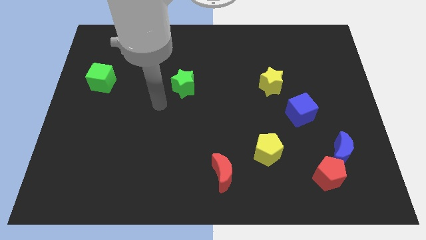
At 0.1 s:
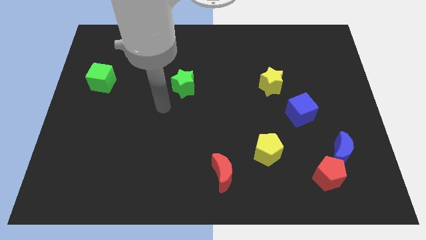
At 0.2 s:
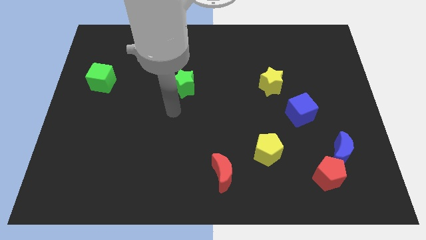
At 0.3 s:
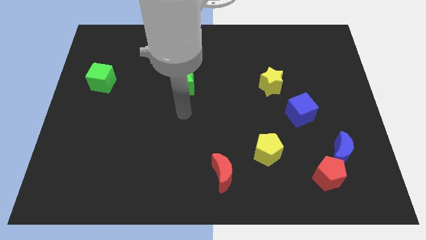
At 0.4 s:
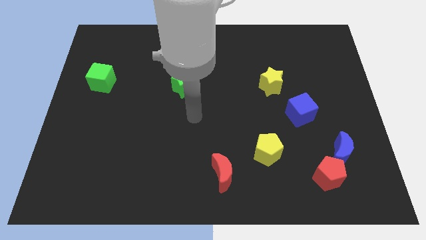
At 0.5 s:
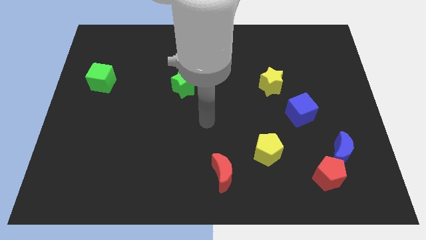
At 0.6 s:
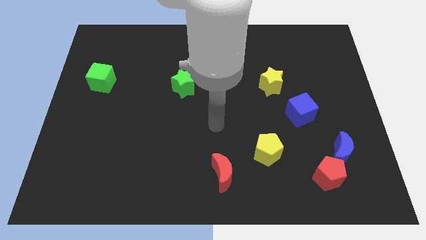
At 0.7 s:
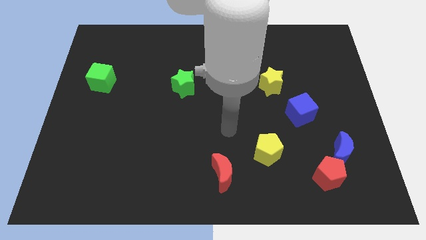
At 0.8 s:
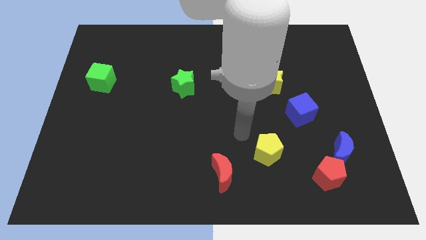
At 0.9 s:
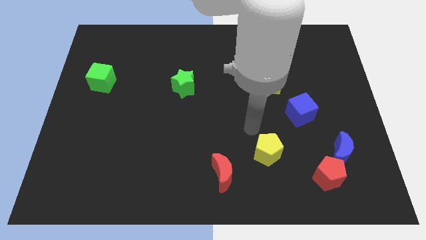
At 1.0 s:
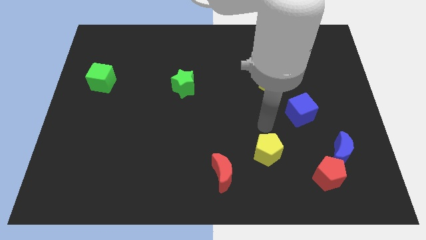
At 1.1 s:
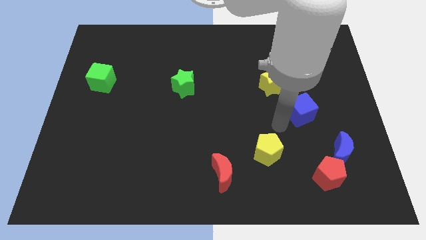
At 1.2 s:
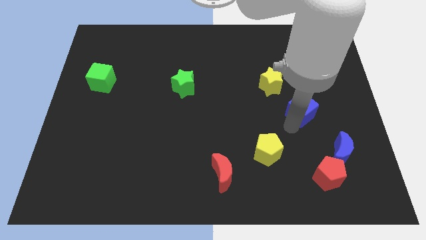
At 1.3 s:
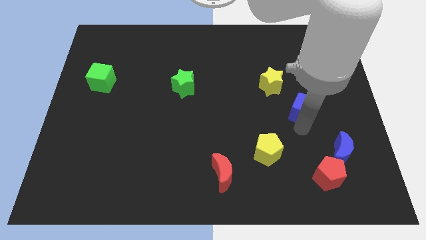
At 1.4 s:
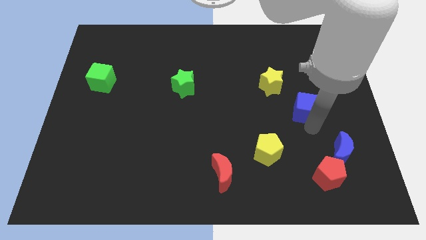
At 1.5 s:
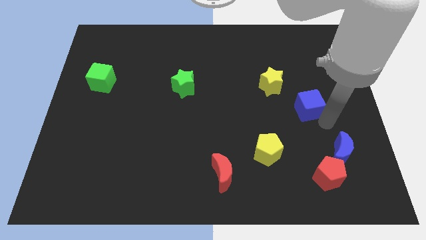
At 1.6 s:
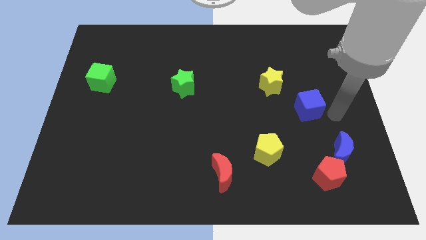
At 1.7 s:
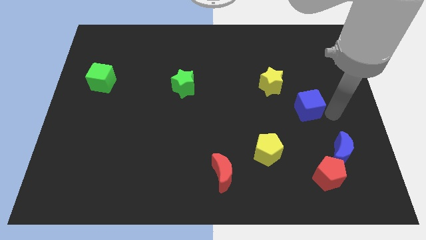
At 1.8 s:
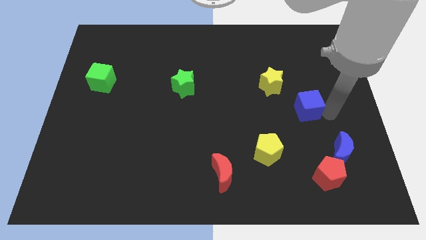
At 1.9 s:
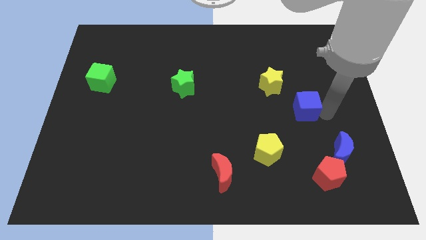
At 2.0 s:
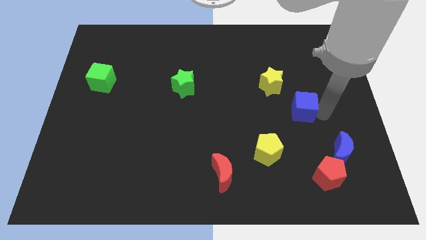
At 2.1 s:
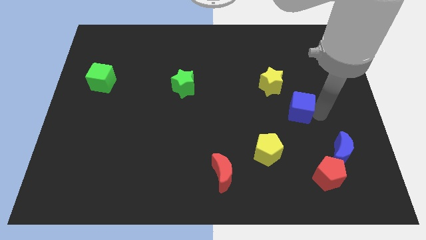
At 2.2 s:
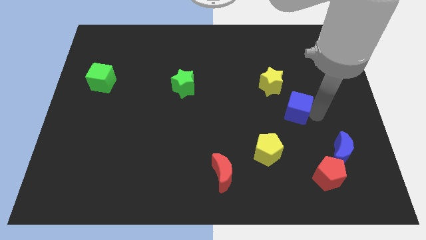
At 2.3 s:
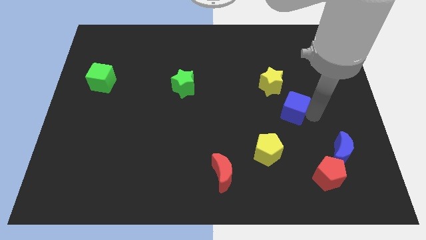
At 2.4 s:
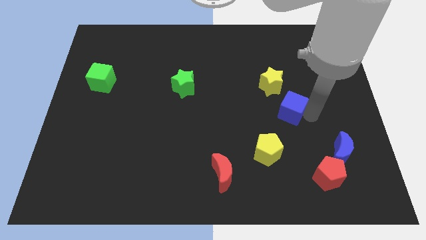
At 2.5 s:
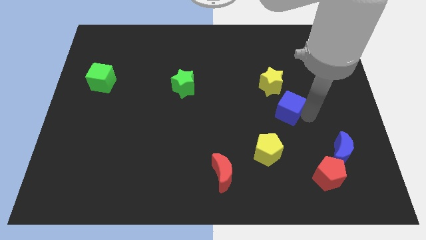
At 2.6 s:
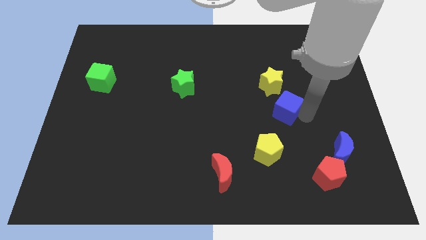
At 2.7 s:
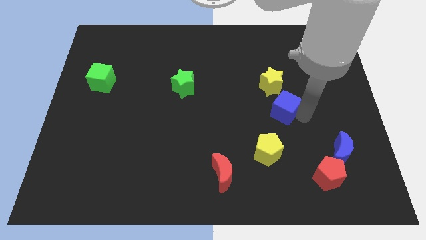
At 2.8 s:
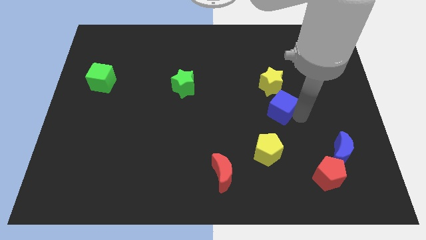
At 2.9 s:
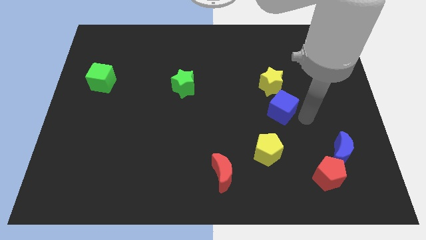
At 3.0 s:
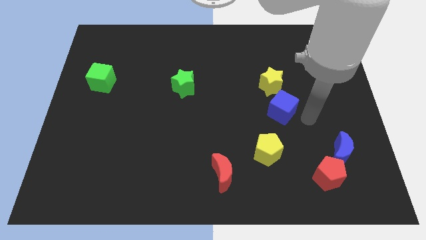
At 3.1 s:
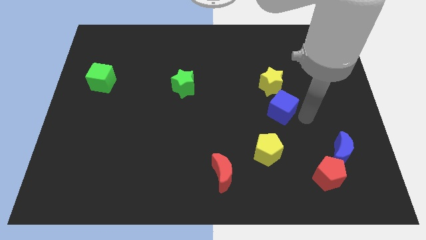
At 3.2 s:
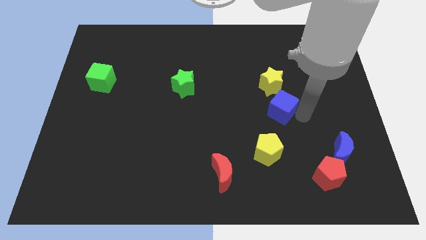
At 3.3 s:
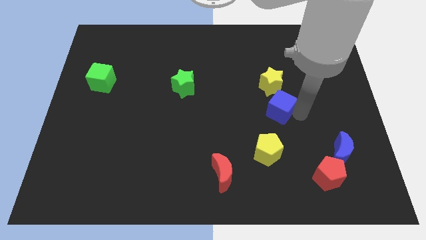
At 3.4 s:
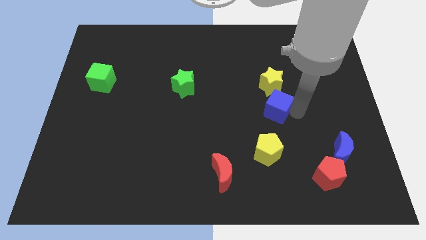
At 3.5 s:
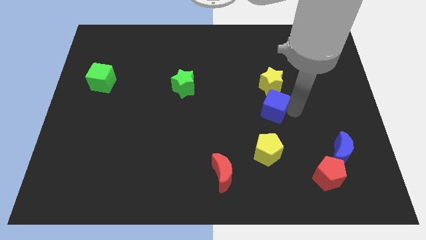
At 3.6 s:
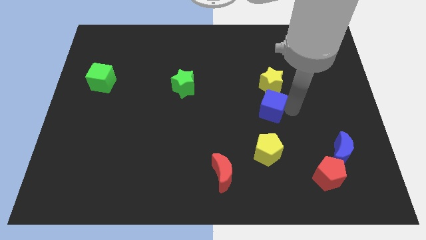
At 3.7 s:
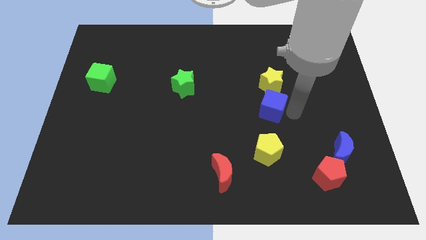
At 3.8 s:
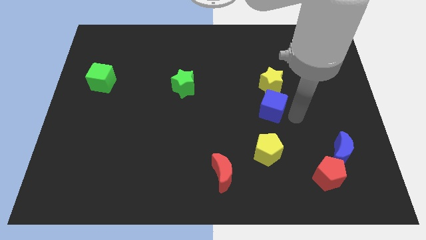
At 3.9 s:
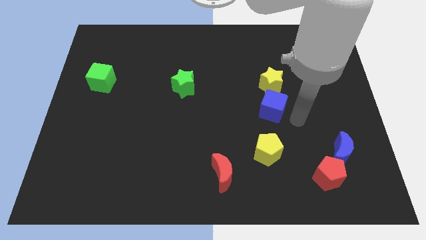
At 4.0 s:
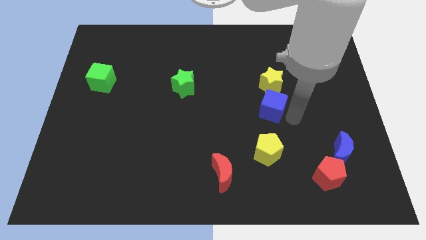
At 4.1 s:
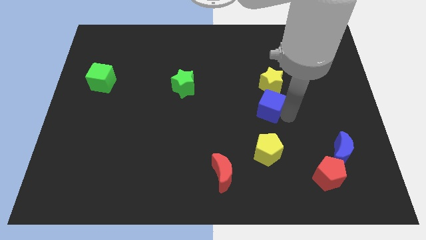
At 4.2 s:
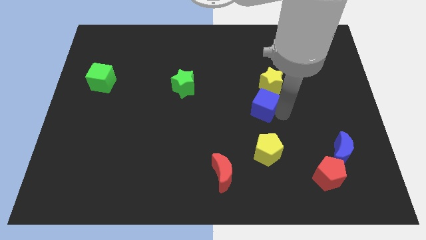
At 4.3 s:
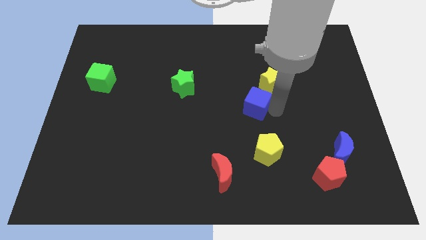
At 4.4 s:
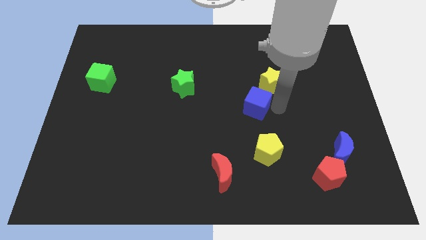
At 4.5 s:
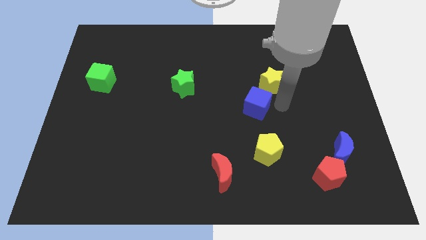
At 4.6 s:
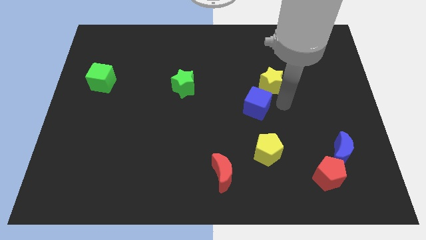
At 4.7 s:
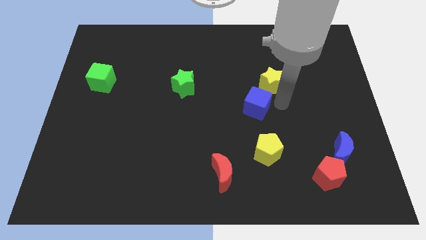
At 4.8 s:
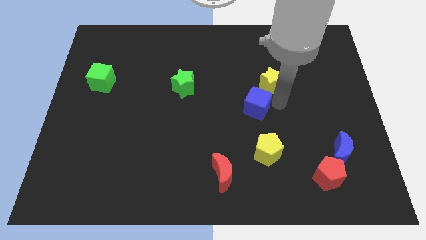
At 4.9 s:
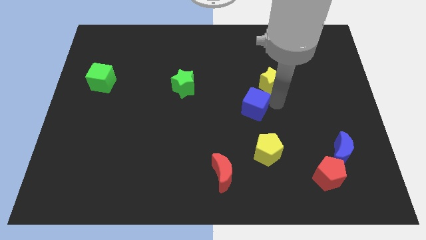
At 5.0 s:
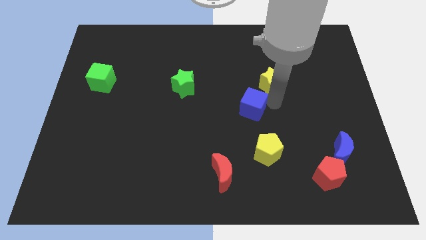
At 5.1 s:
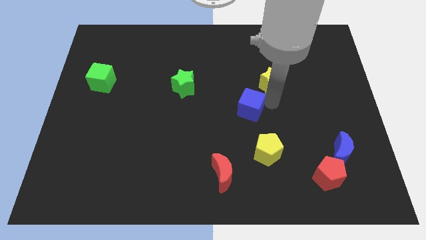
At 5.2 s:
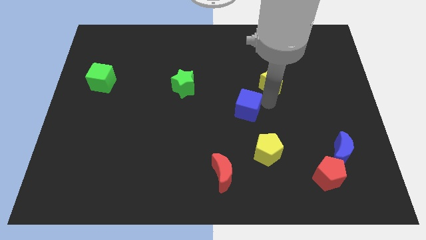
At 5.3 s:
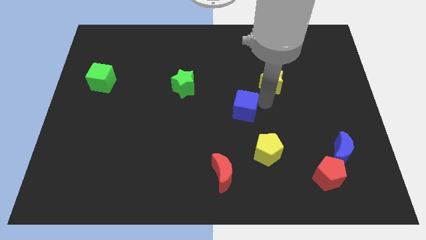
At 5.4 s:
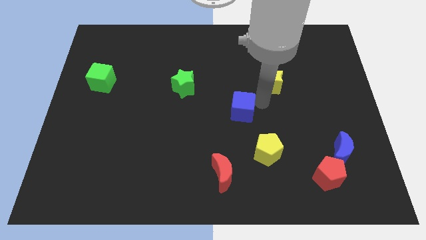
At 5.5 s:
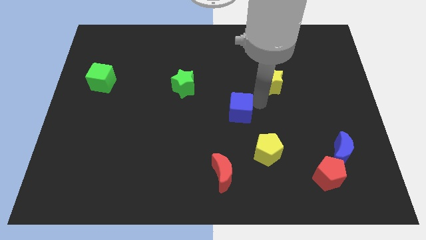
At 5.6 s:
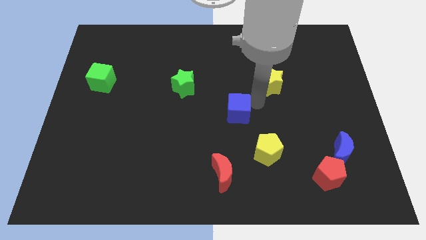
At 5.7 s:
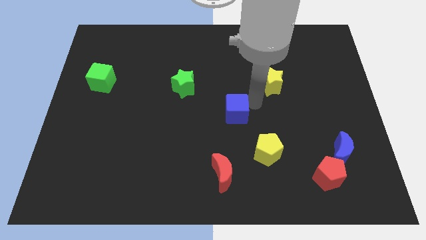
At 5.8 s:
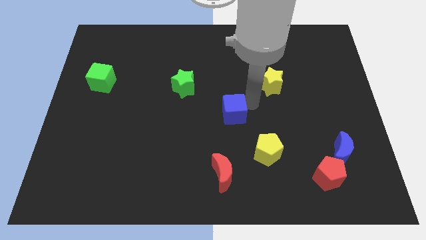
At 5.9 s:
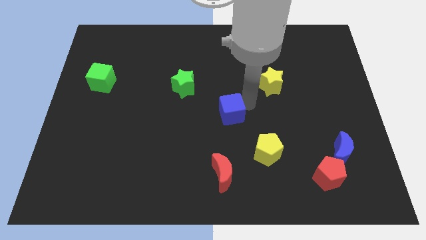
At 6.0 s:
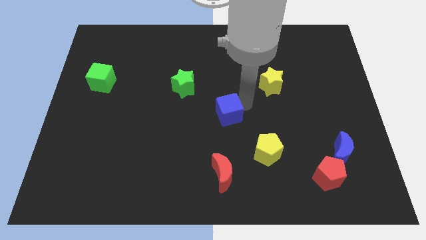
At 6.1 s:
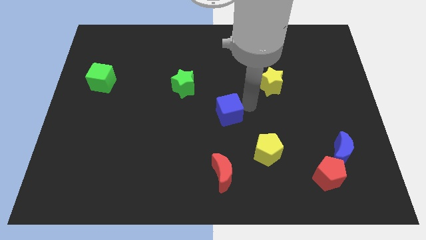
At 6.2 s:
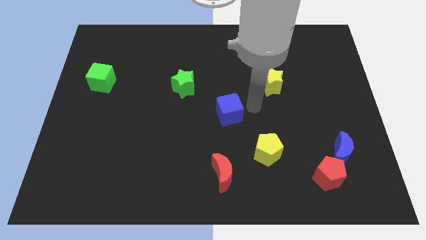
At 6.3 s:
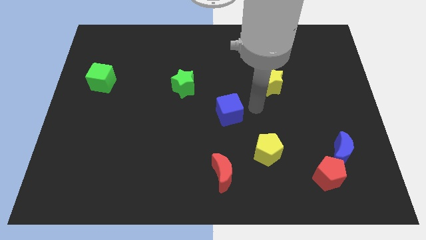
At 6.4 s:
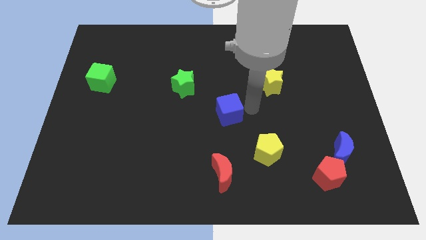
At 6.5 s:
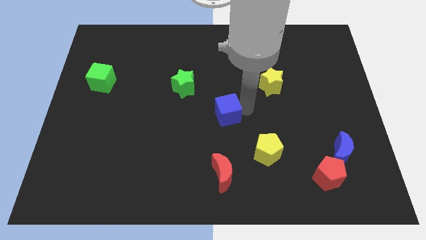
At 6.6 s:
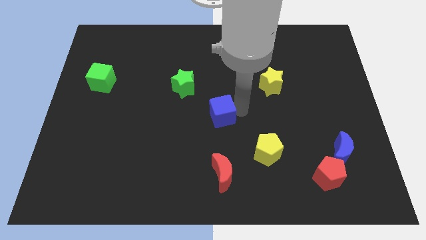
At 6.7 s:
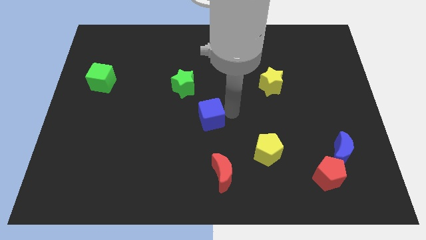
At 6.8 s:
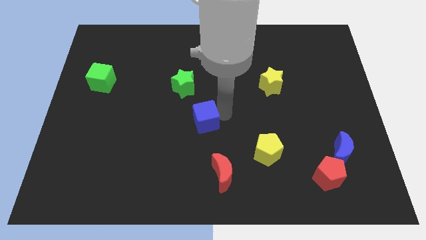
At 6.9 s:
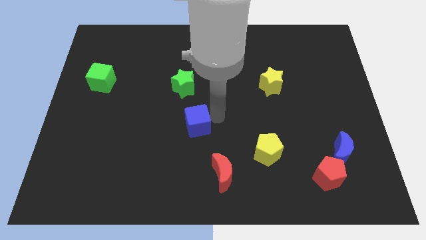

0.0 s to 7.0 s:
push the blue cube to the bottom side of the green star
